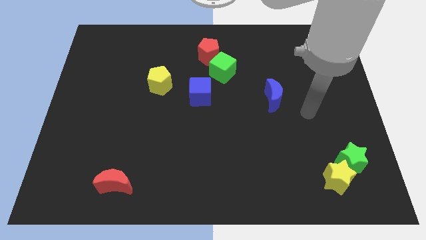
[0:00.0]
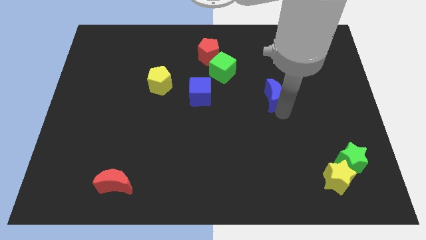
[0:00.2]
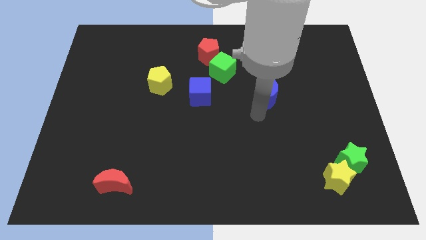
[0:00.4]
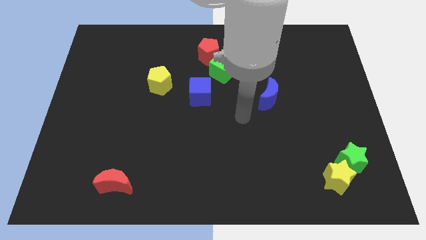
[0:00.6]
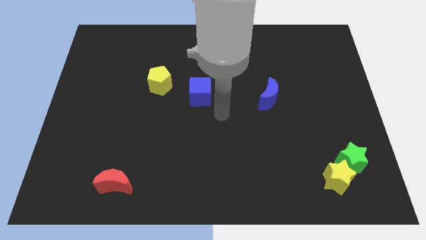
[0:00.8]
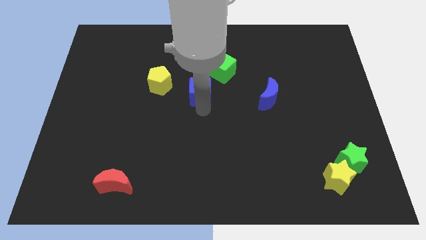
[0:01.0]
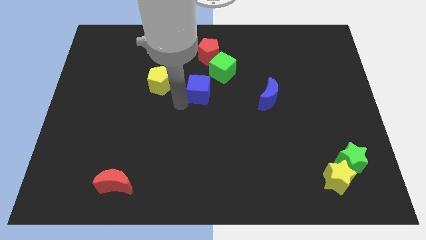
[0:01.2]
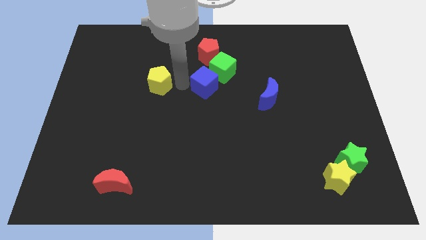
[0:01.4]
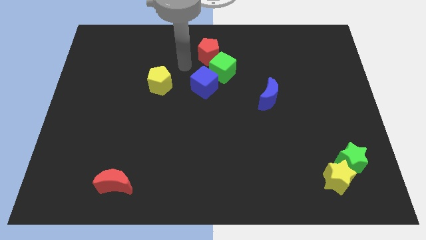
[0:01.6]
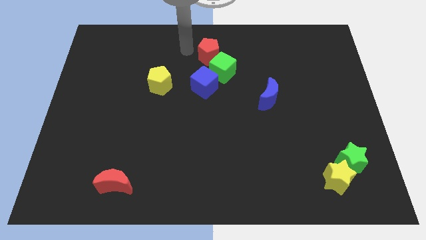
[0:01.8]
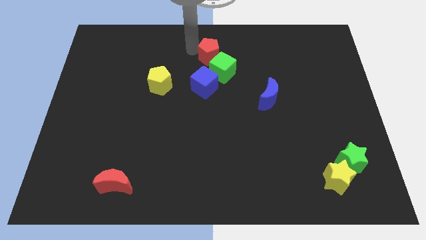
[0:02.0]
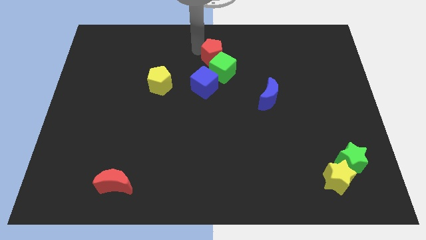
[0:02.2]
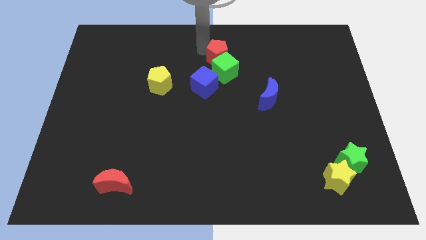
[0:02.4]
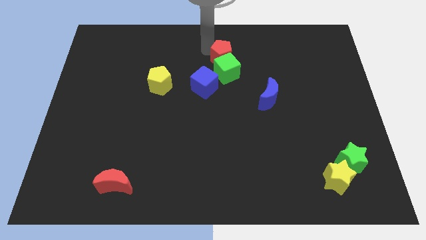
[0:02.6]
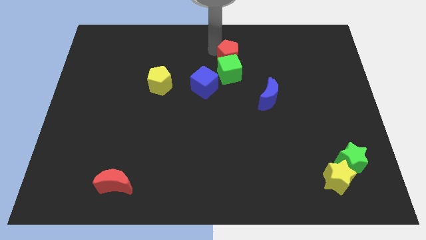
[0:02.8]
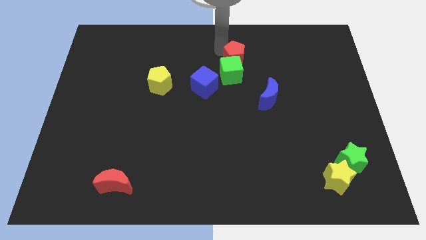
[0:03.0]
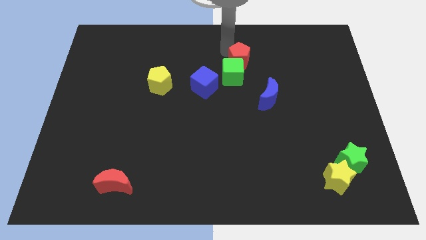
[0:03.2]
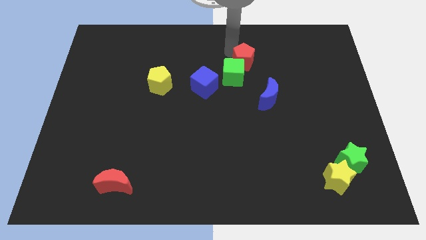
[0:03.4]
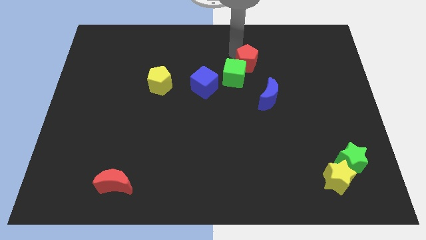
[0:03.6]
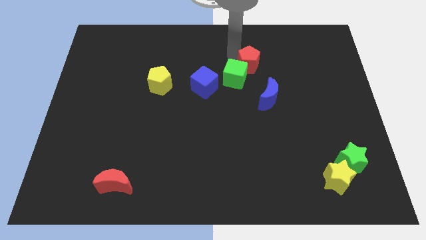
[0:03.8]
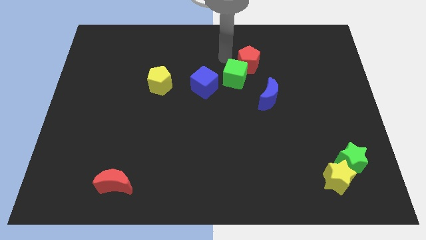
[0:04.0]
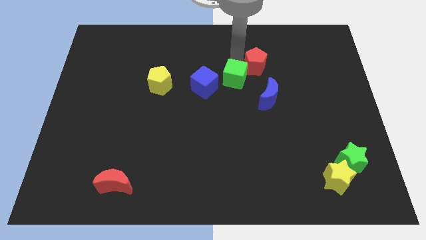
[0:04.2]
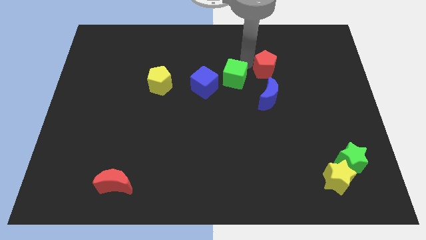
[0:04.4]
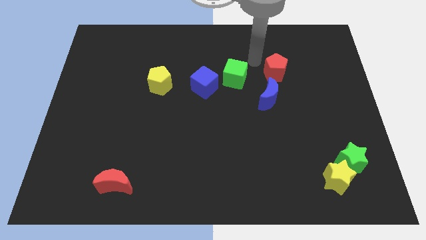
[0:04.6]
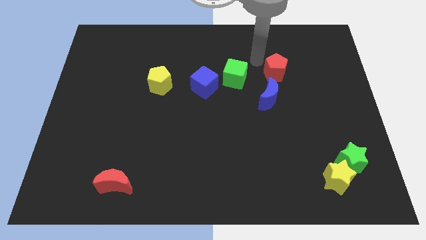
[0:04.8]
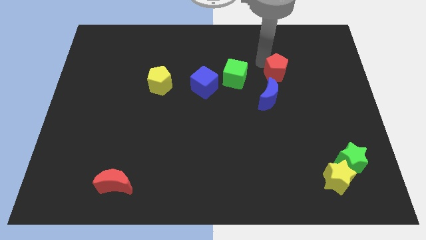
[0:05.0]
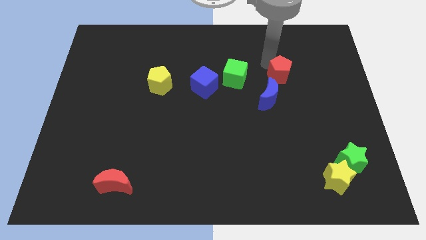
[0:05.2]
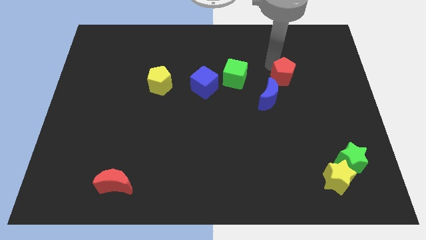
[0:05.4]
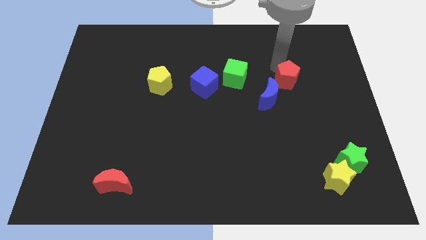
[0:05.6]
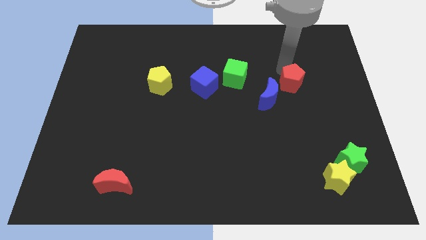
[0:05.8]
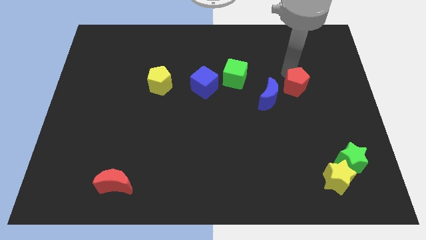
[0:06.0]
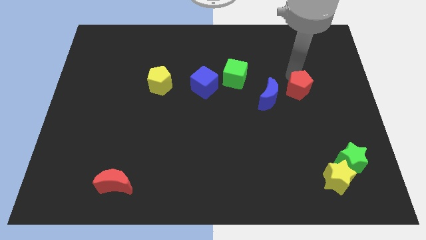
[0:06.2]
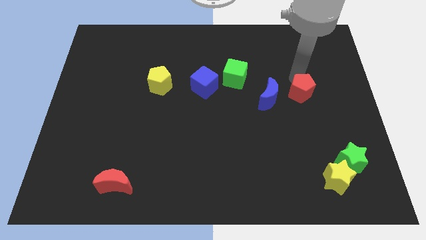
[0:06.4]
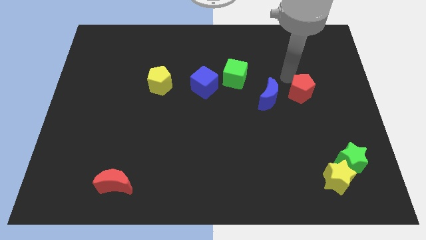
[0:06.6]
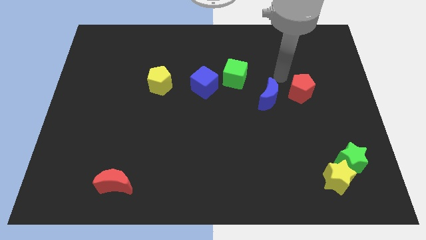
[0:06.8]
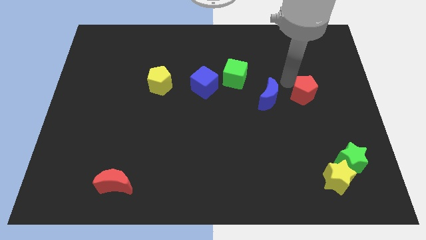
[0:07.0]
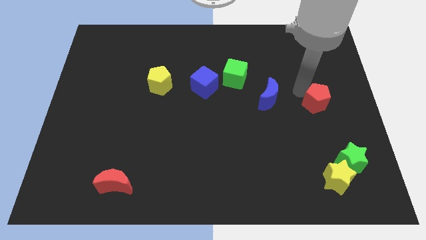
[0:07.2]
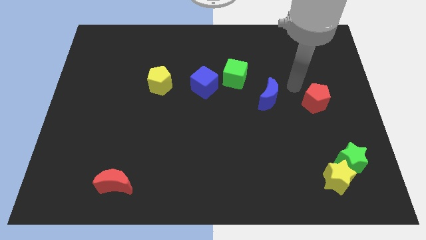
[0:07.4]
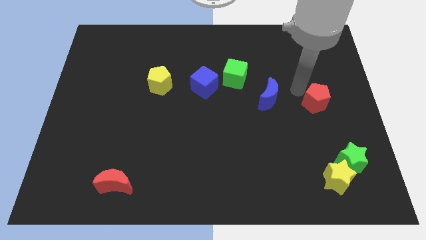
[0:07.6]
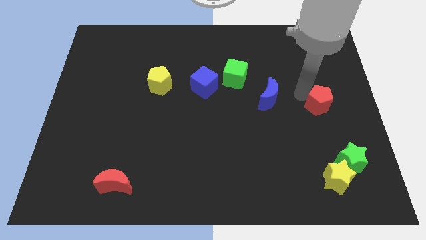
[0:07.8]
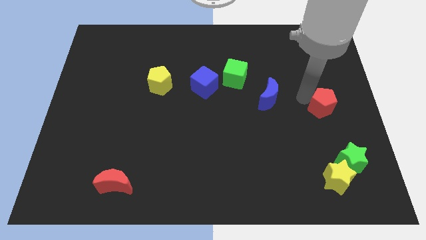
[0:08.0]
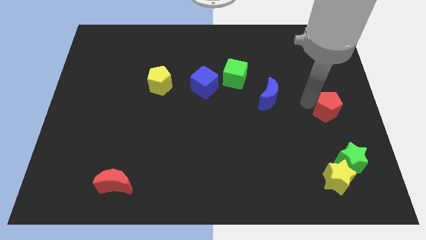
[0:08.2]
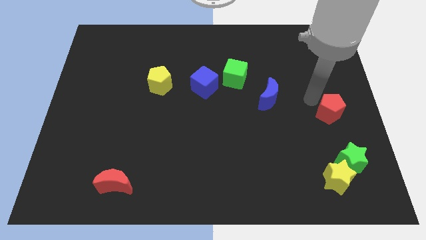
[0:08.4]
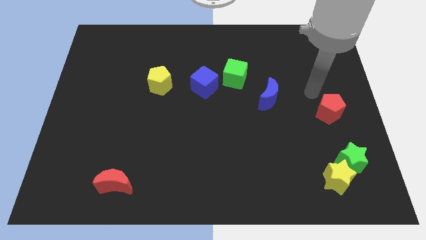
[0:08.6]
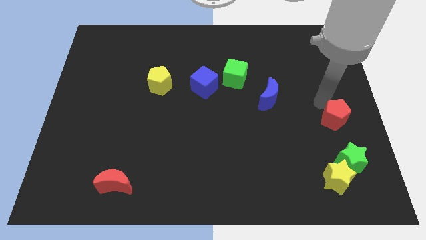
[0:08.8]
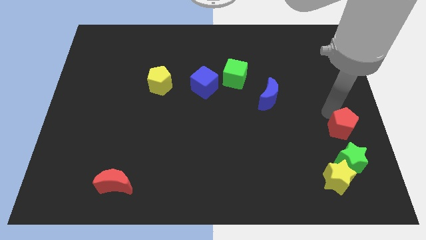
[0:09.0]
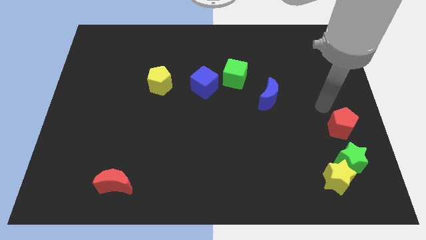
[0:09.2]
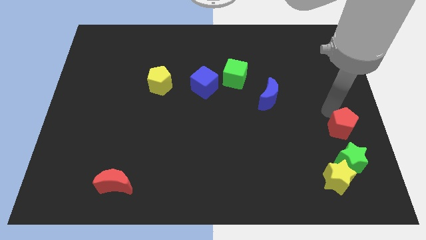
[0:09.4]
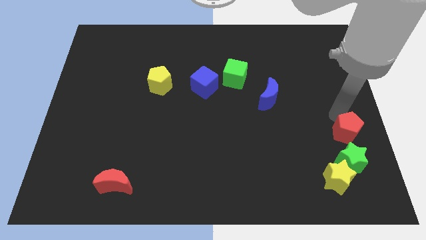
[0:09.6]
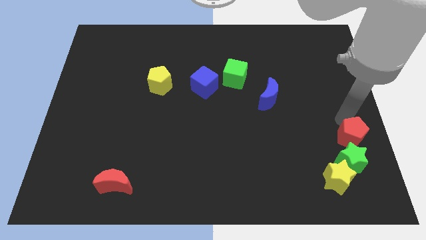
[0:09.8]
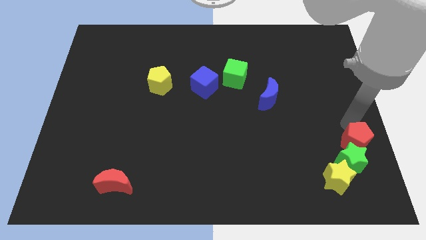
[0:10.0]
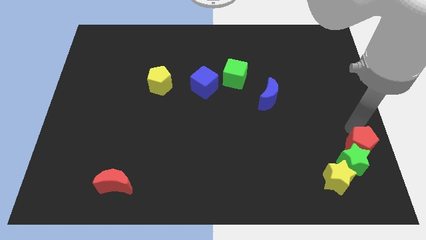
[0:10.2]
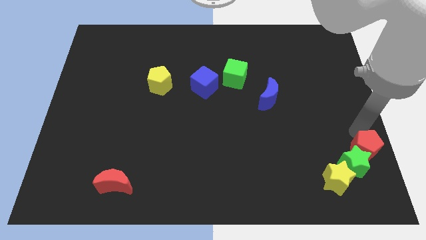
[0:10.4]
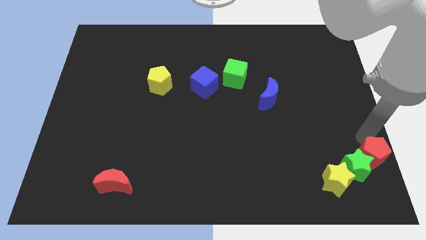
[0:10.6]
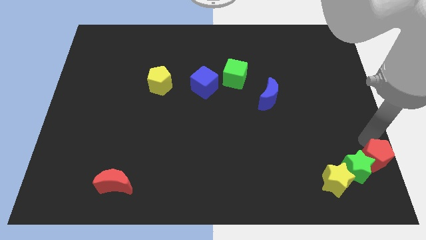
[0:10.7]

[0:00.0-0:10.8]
slide the red pentagon to the bottom right corner

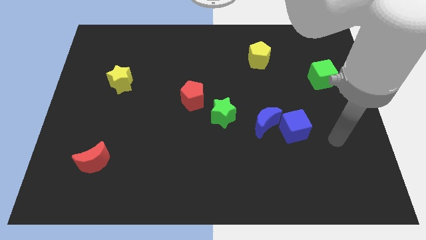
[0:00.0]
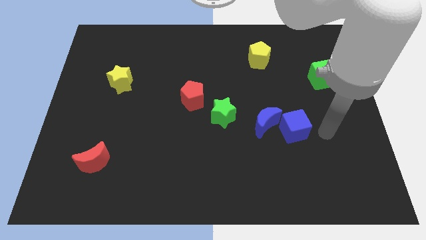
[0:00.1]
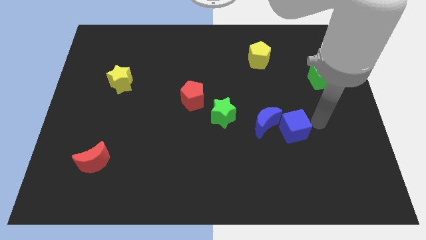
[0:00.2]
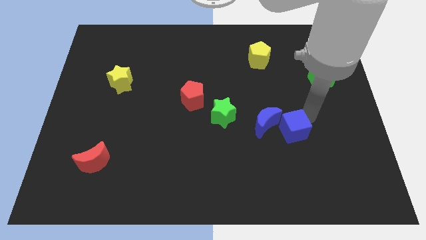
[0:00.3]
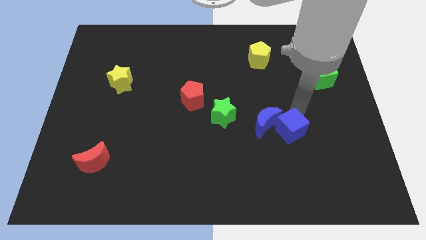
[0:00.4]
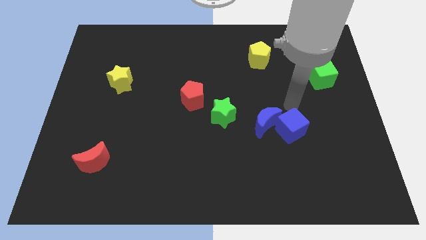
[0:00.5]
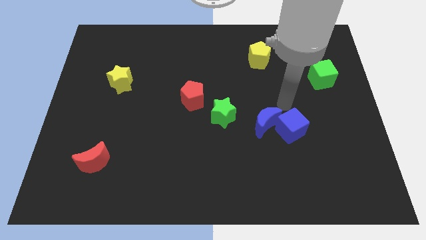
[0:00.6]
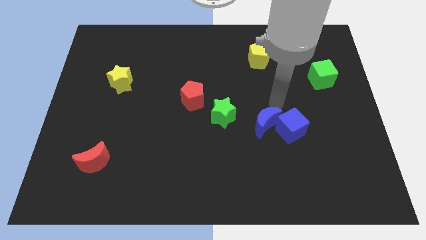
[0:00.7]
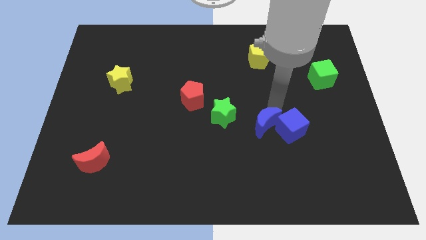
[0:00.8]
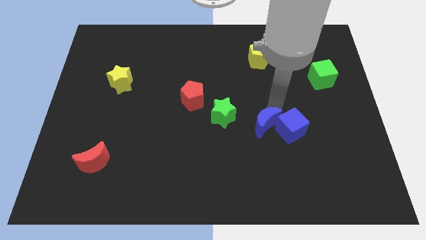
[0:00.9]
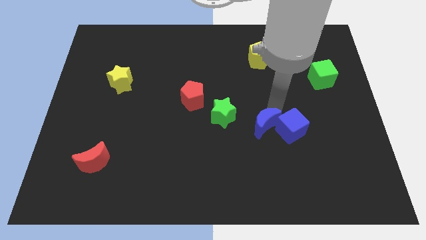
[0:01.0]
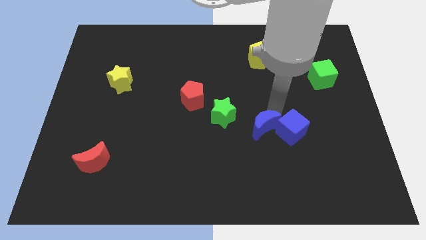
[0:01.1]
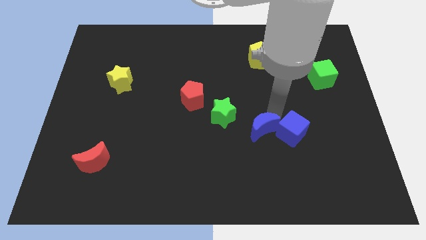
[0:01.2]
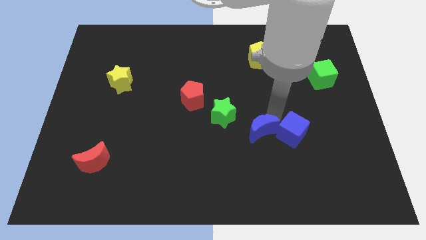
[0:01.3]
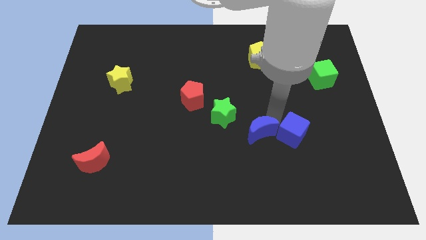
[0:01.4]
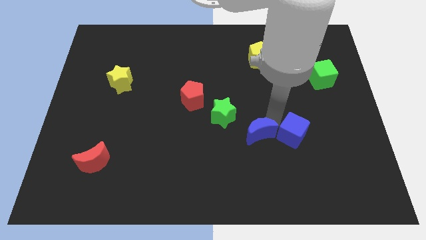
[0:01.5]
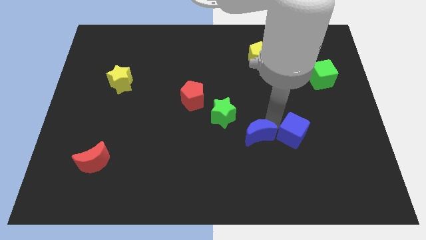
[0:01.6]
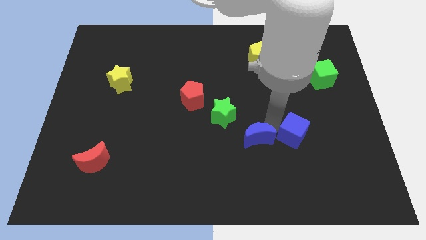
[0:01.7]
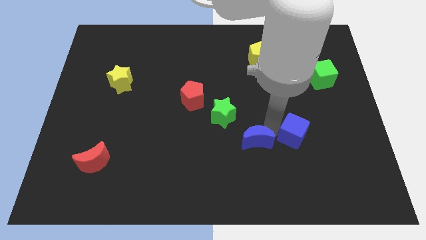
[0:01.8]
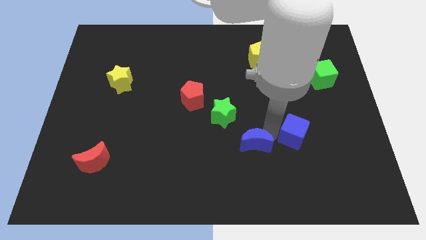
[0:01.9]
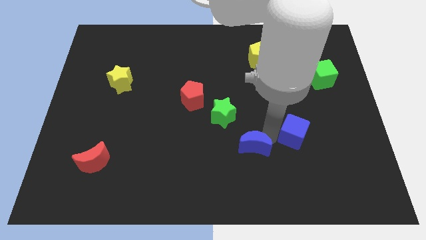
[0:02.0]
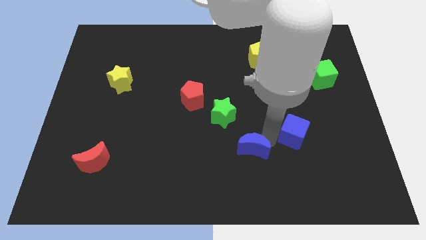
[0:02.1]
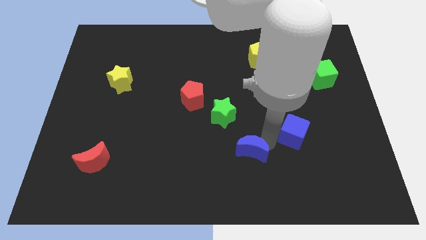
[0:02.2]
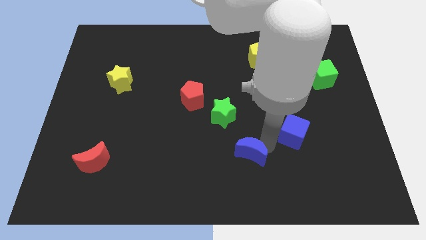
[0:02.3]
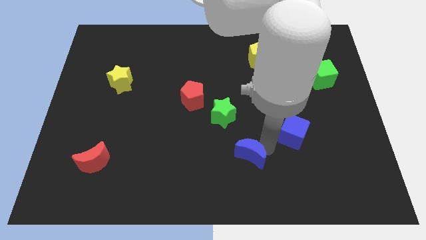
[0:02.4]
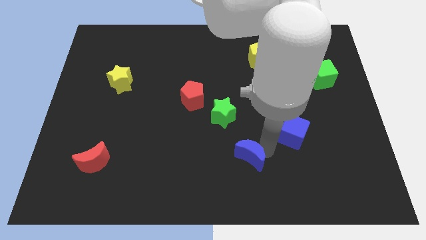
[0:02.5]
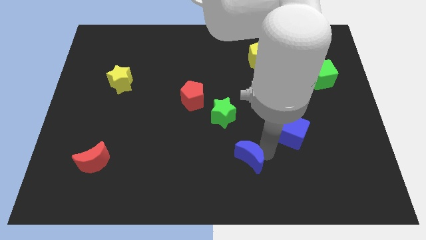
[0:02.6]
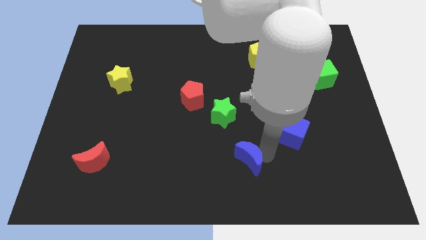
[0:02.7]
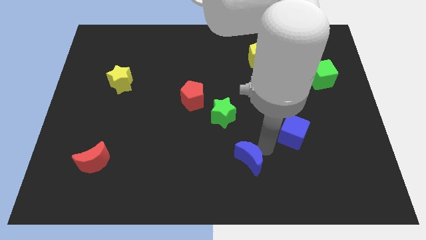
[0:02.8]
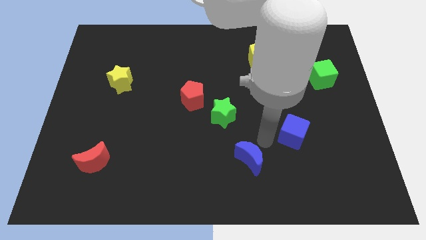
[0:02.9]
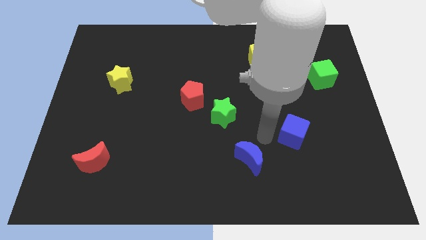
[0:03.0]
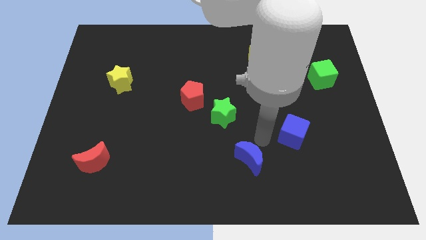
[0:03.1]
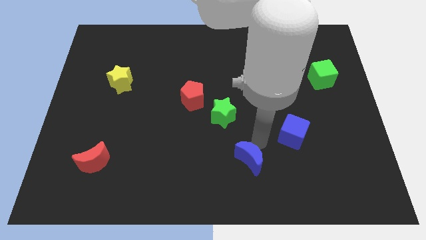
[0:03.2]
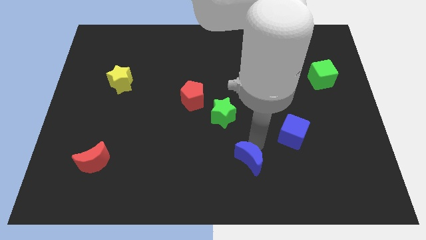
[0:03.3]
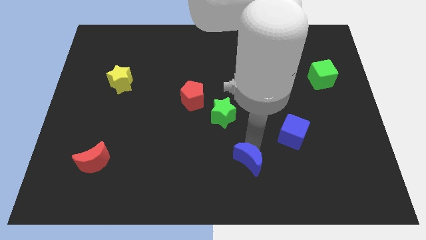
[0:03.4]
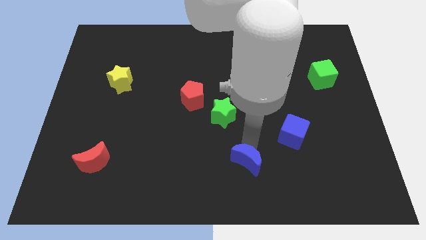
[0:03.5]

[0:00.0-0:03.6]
slide the blue moon to the bottom side
